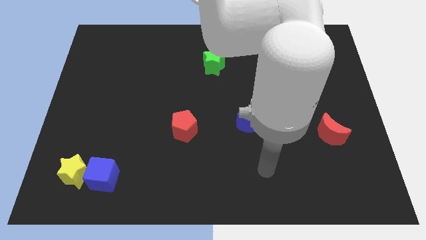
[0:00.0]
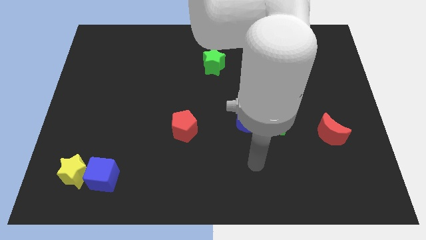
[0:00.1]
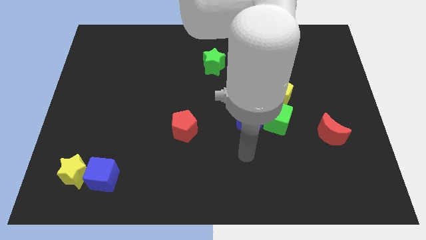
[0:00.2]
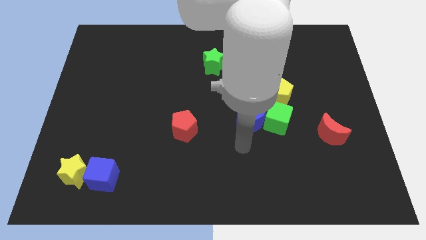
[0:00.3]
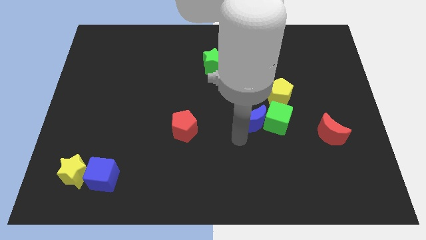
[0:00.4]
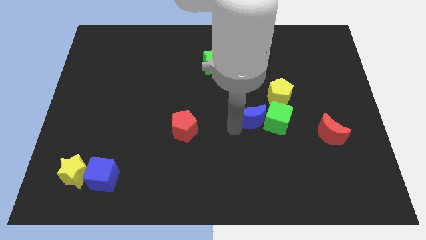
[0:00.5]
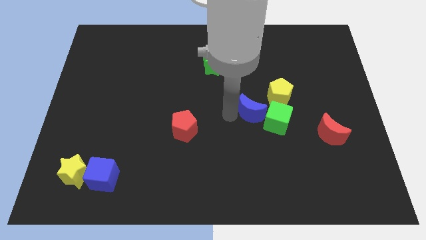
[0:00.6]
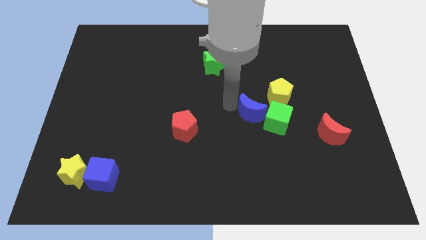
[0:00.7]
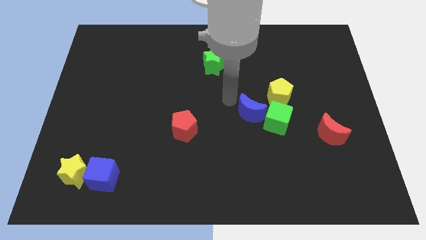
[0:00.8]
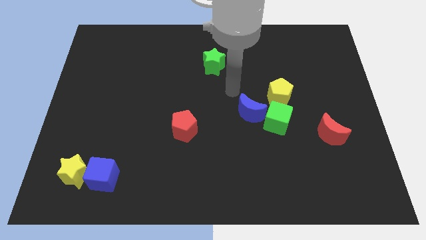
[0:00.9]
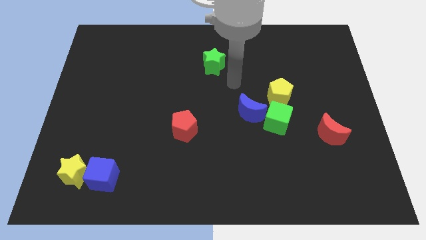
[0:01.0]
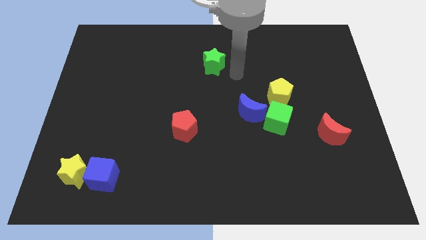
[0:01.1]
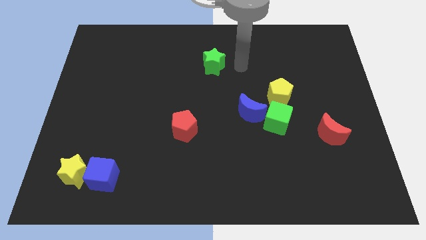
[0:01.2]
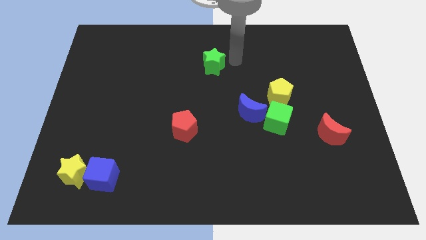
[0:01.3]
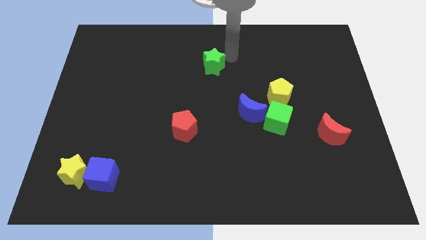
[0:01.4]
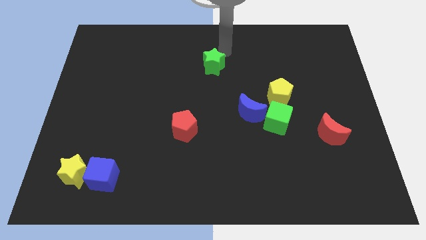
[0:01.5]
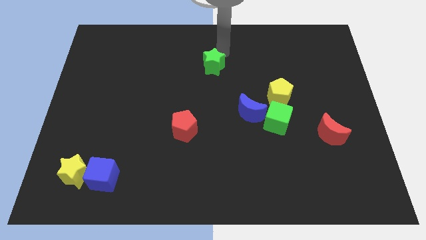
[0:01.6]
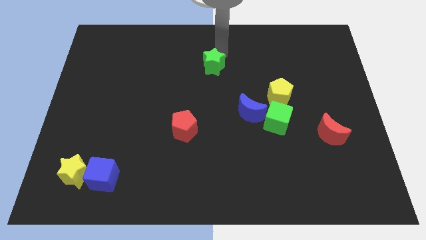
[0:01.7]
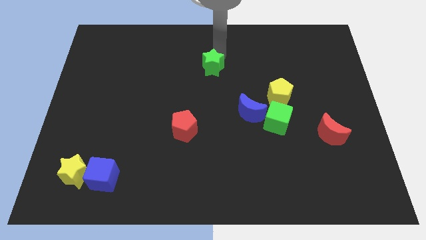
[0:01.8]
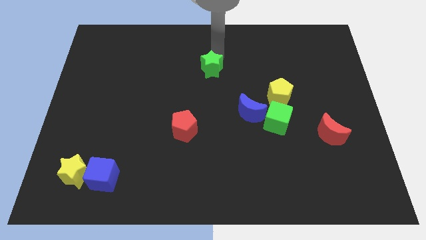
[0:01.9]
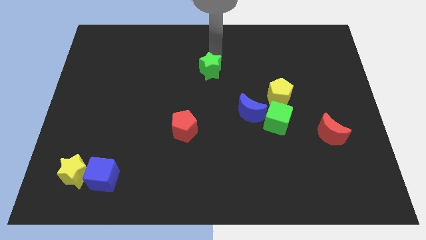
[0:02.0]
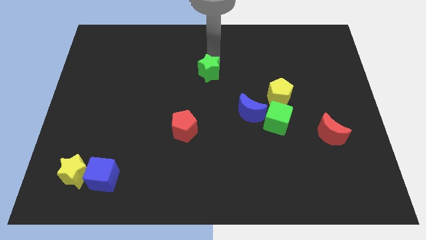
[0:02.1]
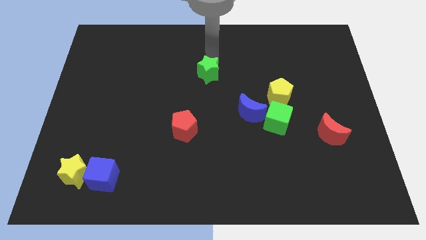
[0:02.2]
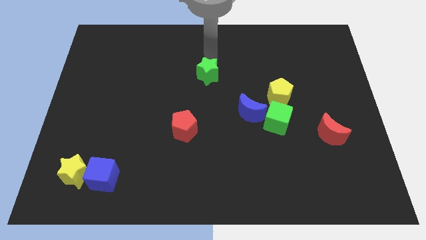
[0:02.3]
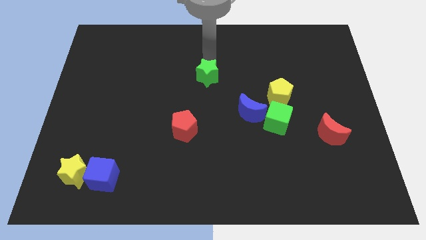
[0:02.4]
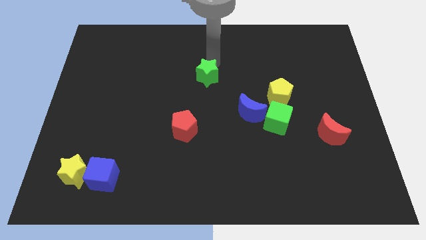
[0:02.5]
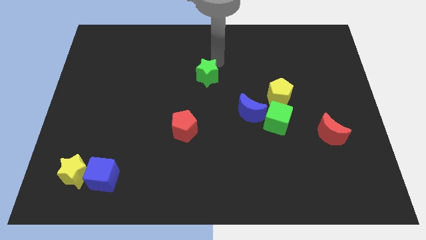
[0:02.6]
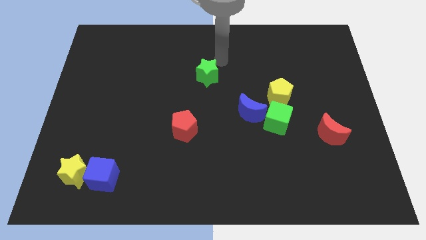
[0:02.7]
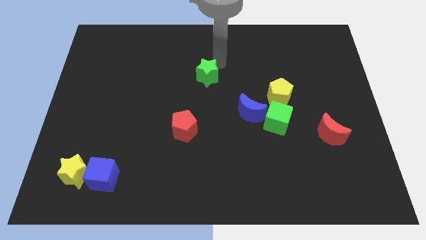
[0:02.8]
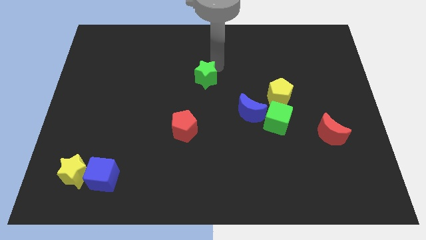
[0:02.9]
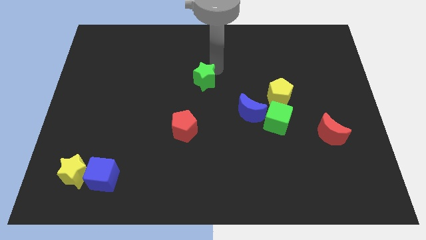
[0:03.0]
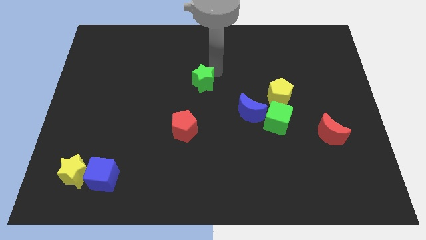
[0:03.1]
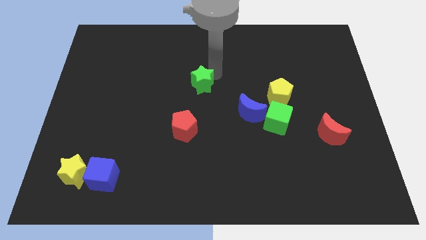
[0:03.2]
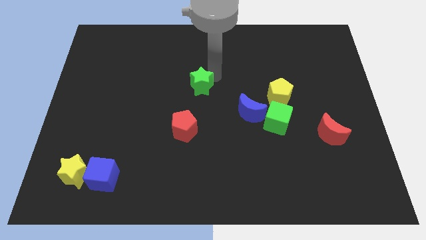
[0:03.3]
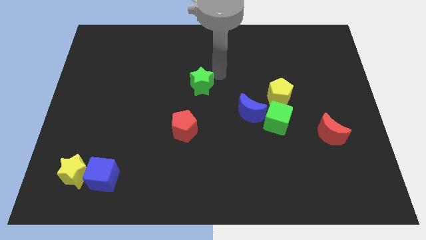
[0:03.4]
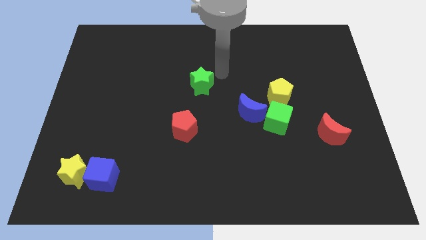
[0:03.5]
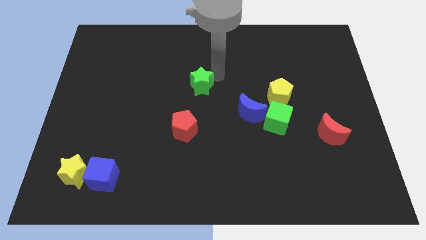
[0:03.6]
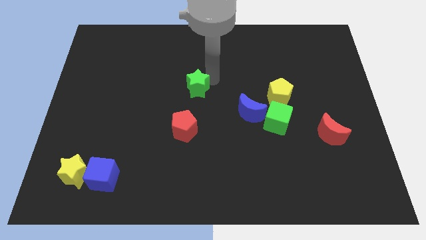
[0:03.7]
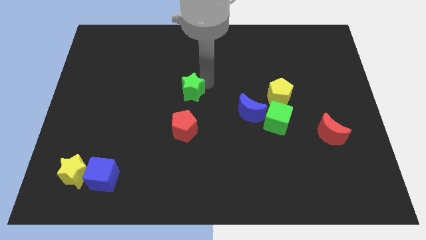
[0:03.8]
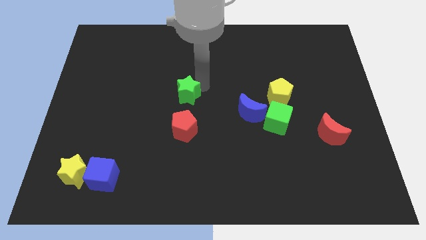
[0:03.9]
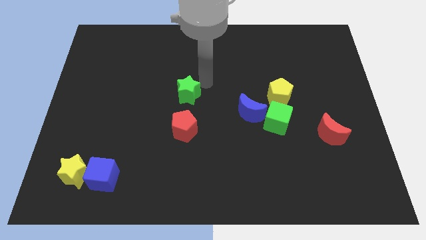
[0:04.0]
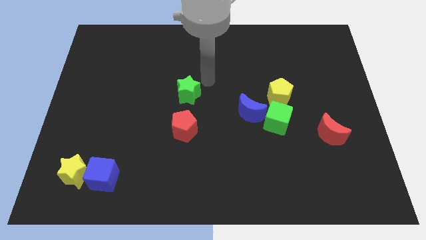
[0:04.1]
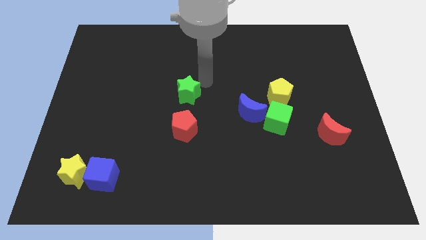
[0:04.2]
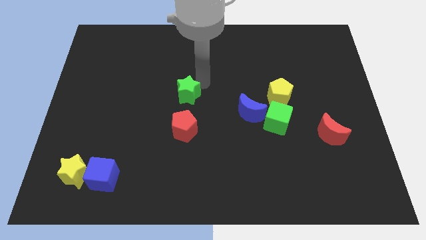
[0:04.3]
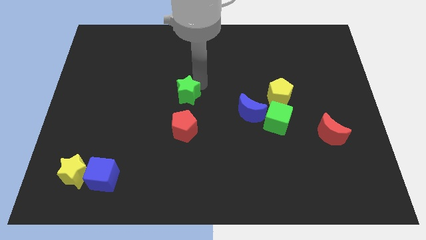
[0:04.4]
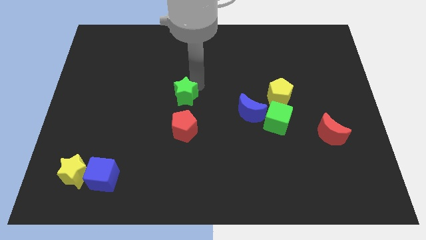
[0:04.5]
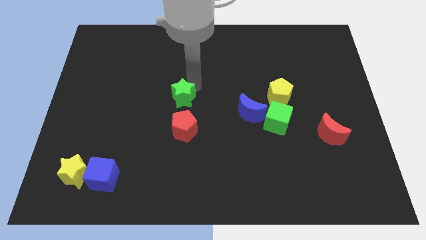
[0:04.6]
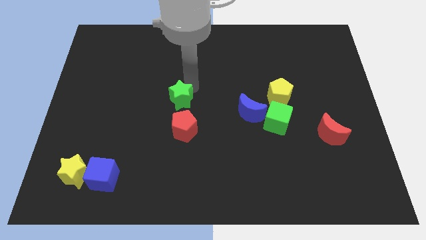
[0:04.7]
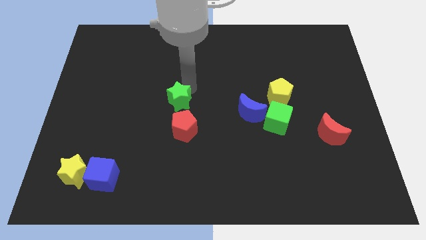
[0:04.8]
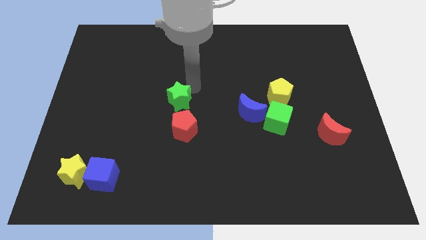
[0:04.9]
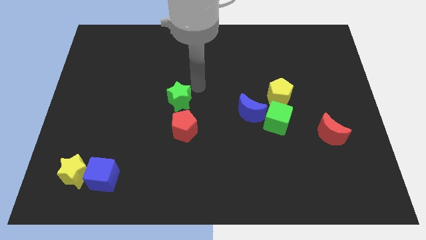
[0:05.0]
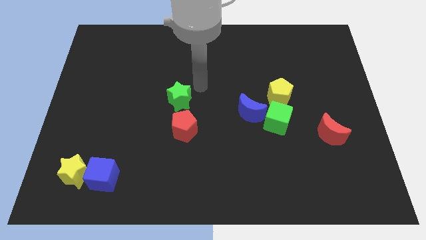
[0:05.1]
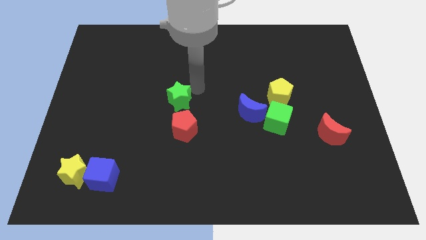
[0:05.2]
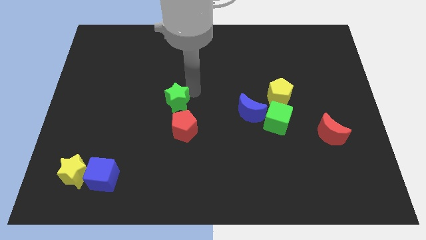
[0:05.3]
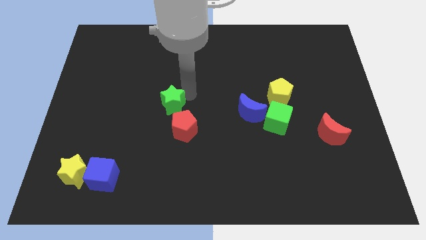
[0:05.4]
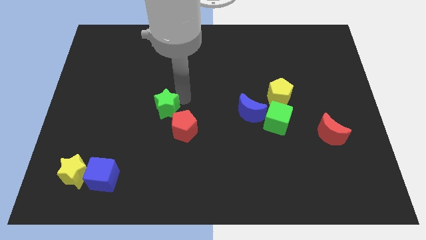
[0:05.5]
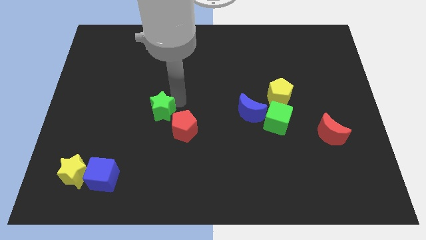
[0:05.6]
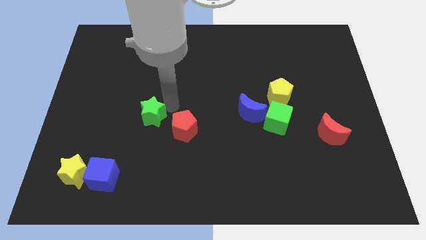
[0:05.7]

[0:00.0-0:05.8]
move the green star down and then left

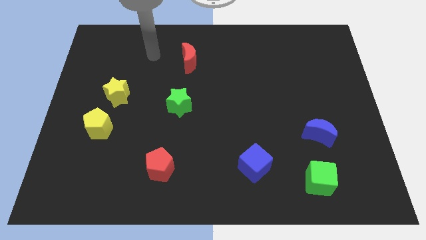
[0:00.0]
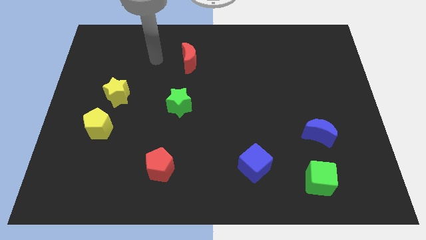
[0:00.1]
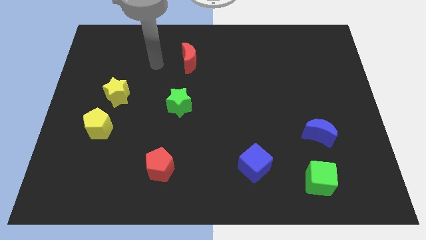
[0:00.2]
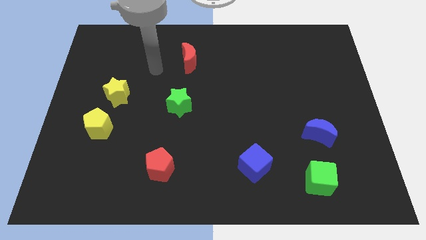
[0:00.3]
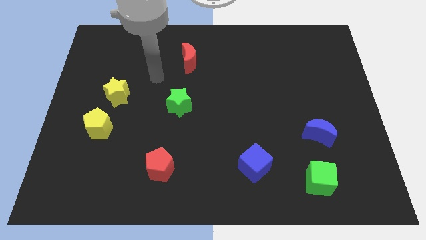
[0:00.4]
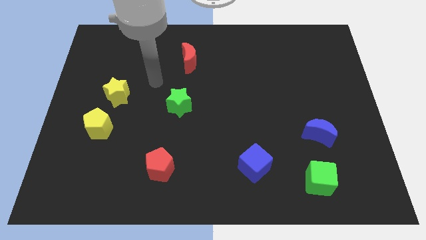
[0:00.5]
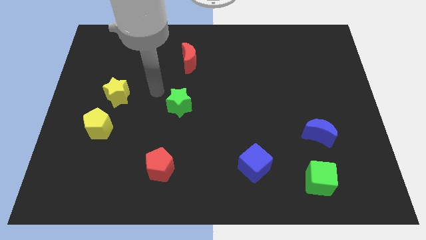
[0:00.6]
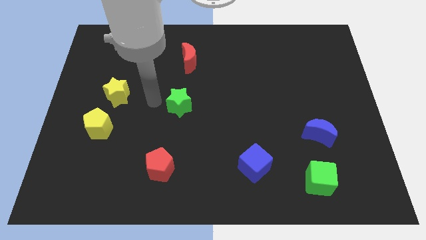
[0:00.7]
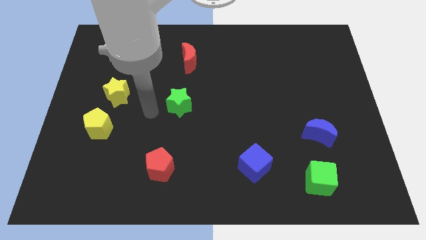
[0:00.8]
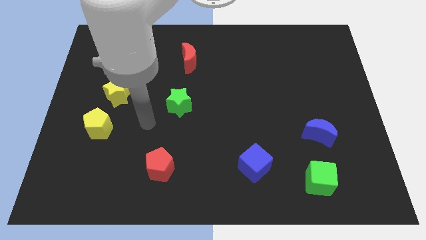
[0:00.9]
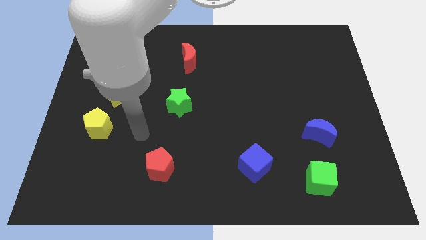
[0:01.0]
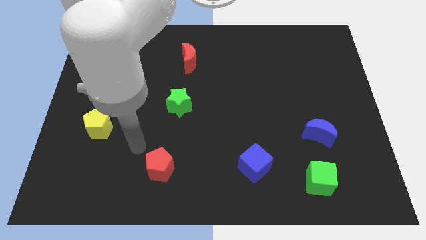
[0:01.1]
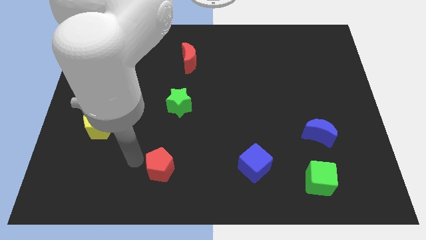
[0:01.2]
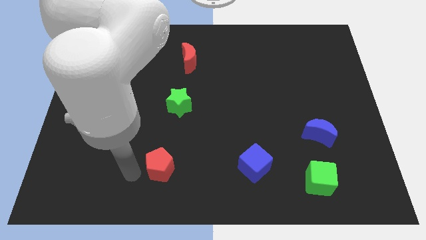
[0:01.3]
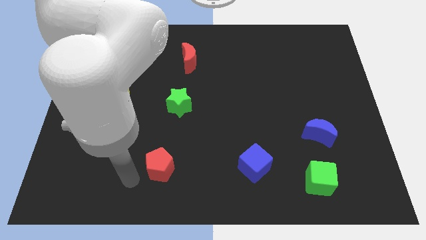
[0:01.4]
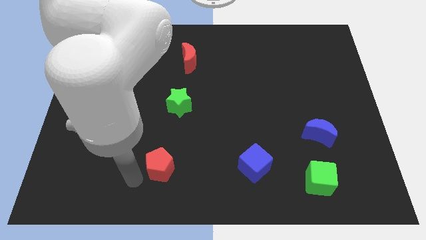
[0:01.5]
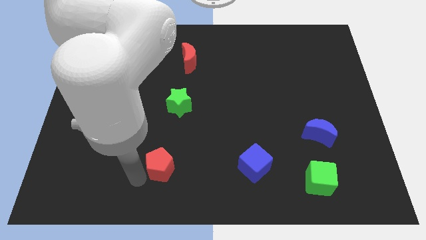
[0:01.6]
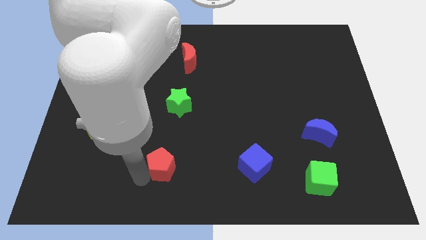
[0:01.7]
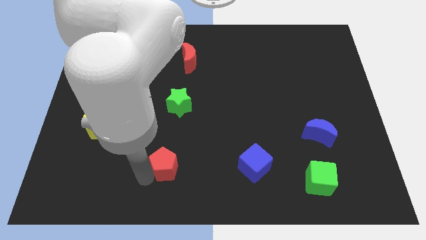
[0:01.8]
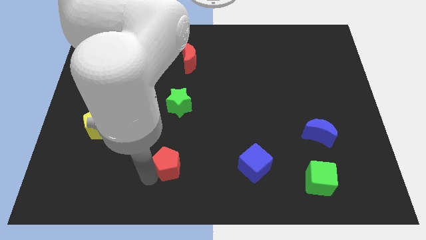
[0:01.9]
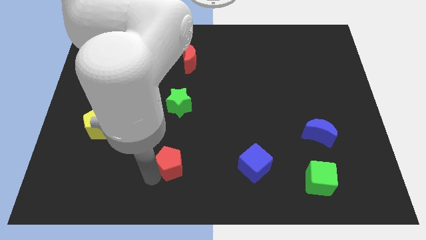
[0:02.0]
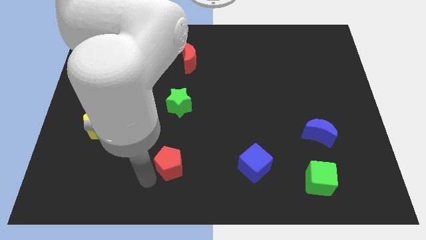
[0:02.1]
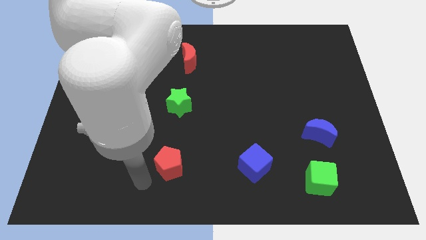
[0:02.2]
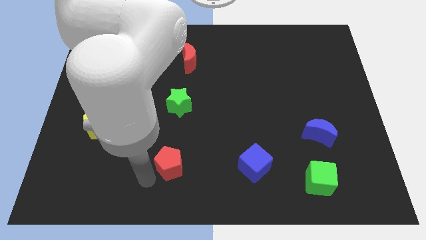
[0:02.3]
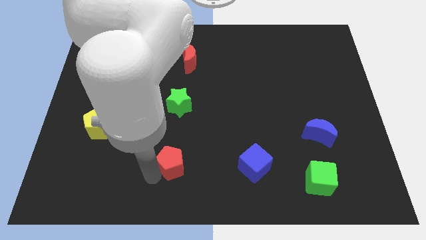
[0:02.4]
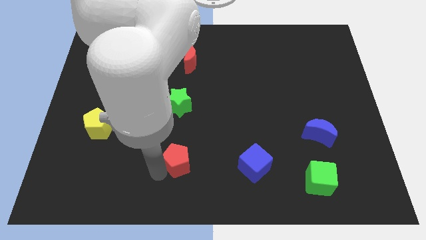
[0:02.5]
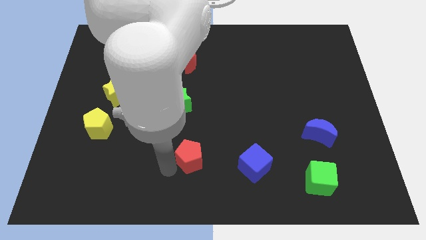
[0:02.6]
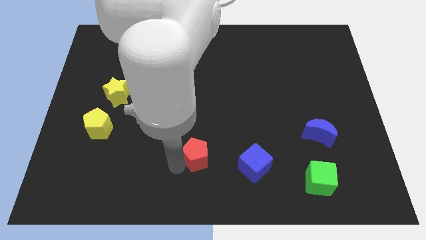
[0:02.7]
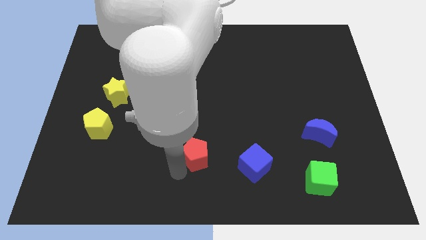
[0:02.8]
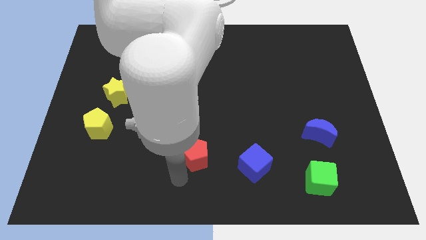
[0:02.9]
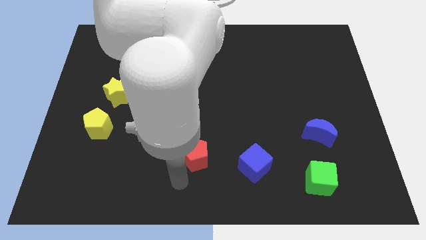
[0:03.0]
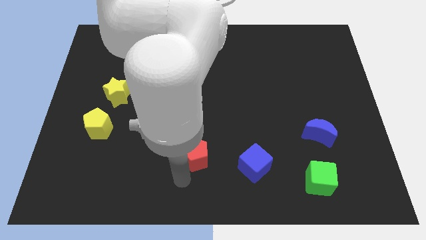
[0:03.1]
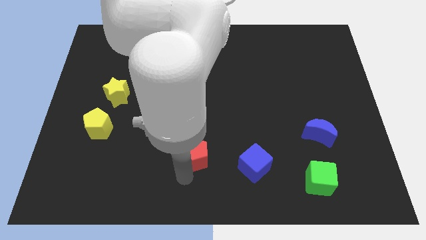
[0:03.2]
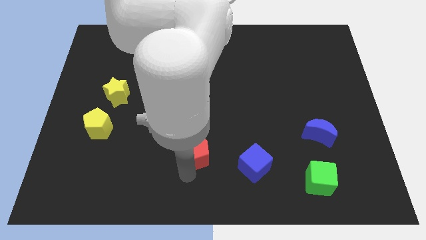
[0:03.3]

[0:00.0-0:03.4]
slide the red pentagon upwards and right diagonally slightly
